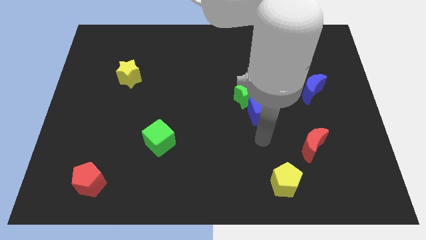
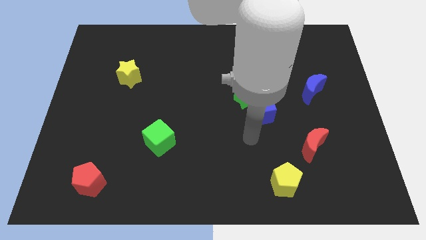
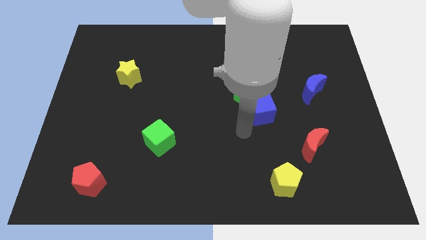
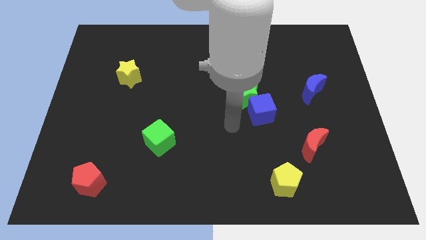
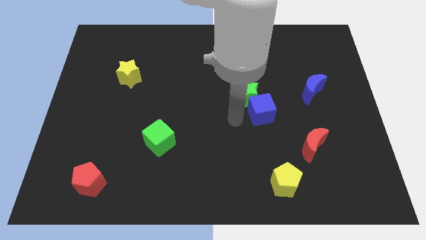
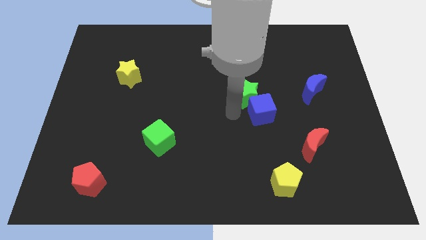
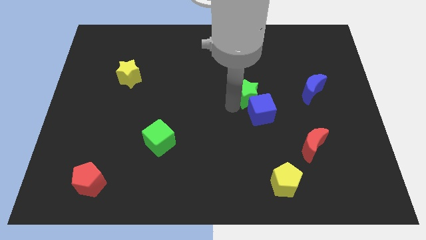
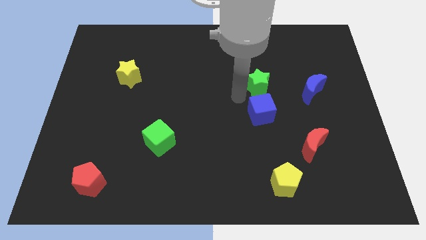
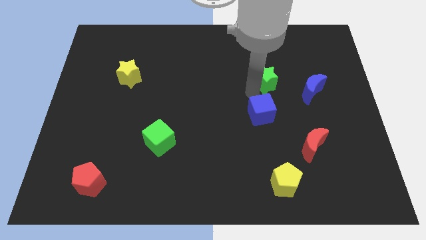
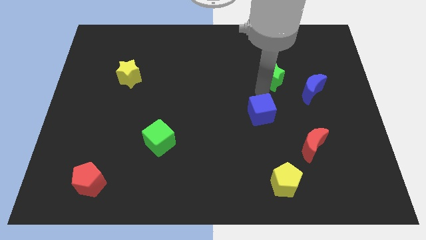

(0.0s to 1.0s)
separate the blue cube from the green star

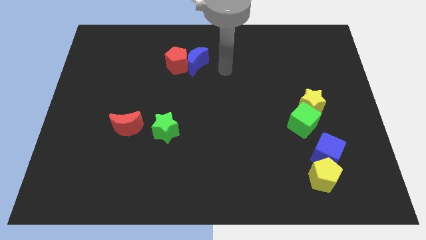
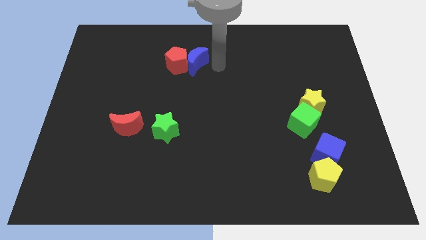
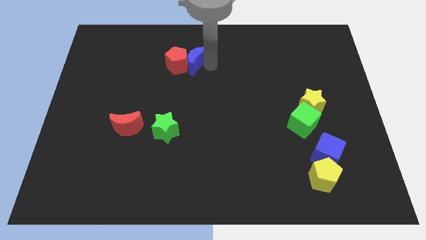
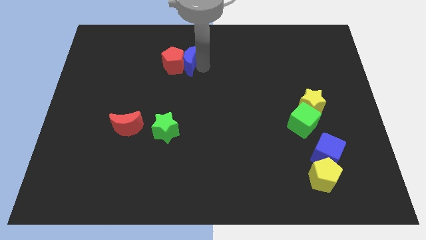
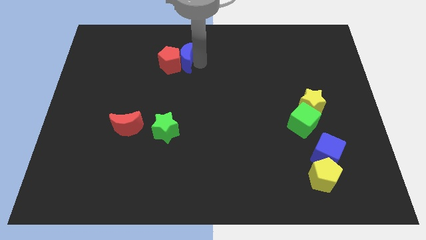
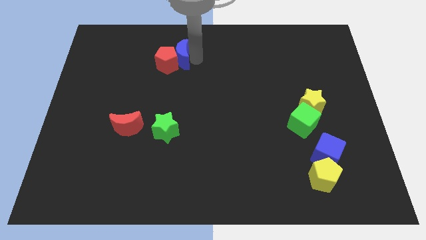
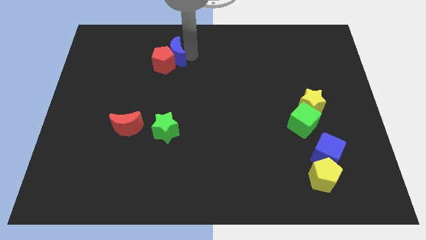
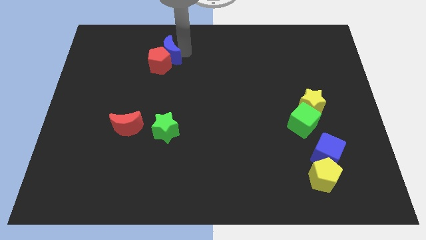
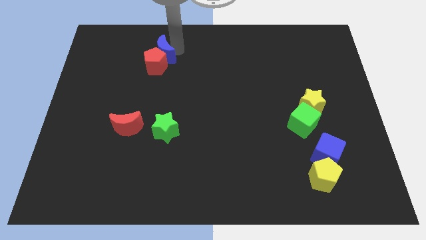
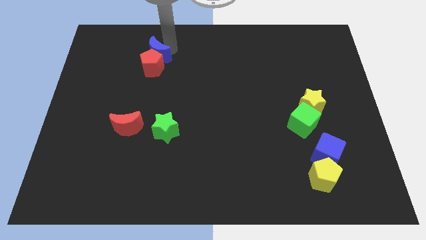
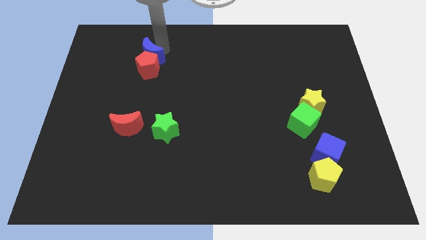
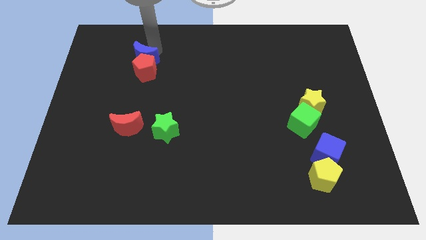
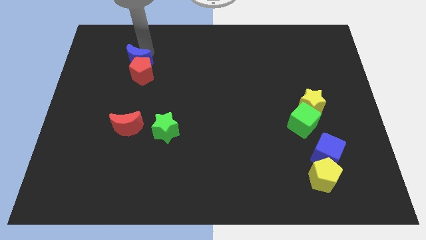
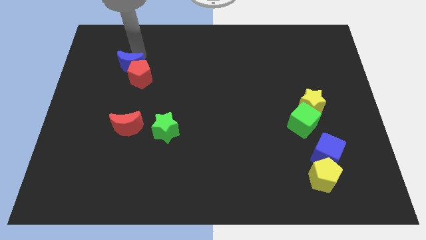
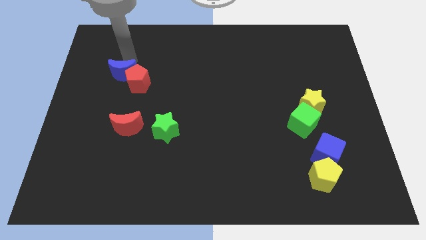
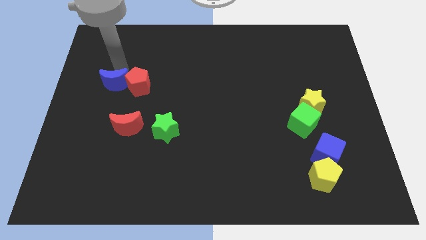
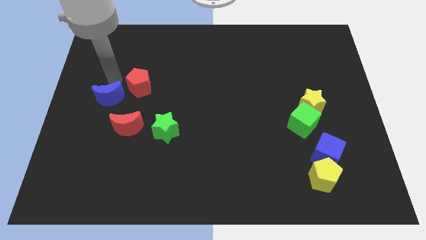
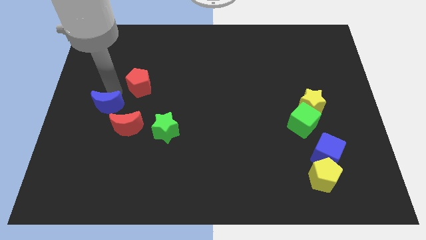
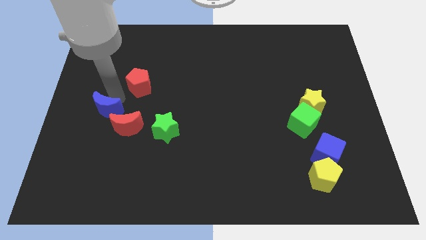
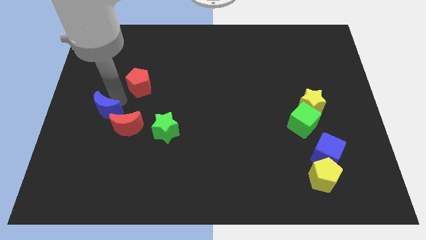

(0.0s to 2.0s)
move the red pentagon away from the blue moon

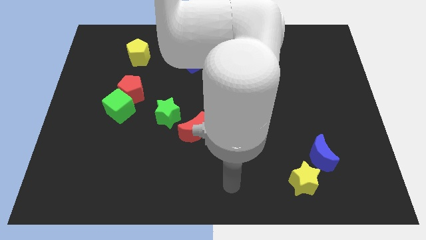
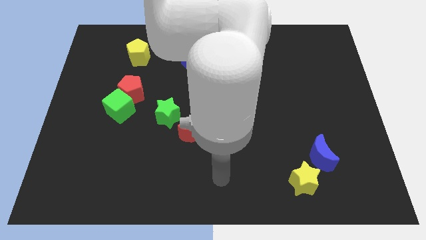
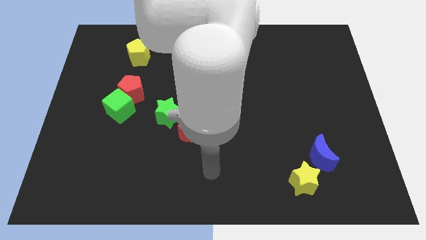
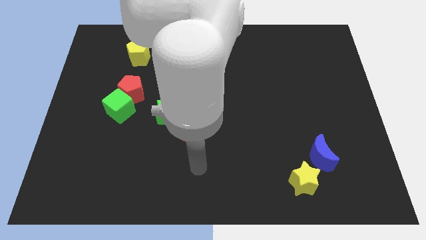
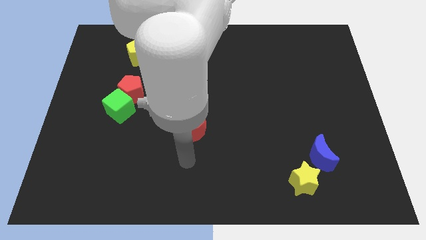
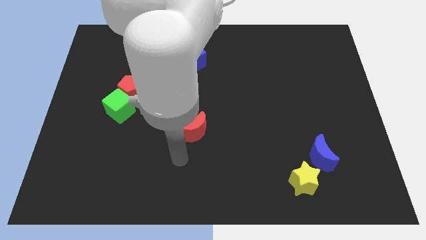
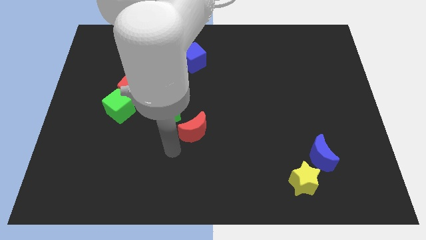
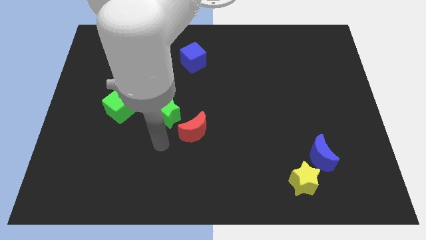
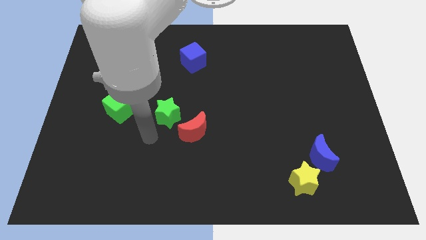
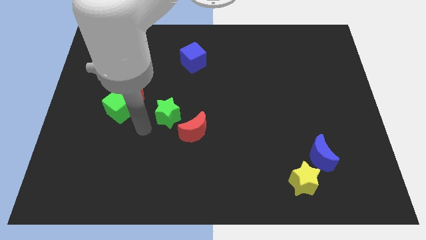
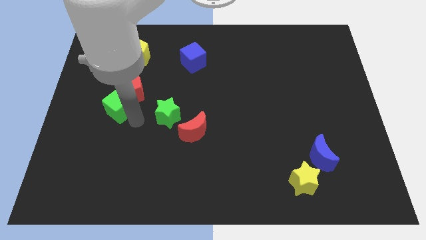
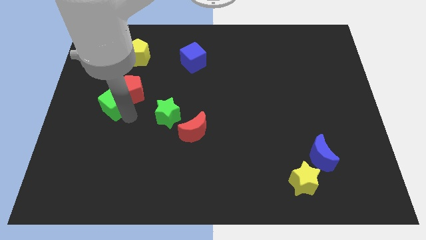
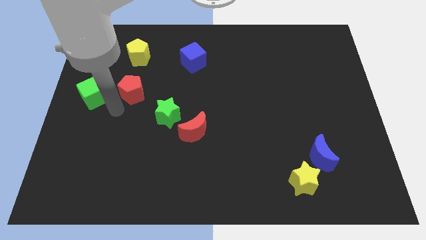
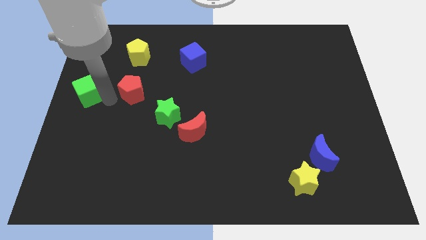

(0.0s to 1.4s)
pull the red pentagon apart from the green cube

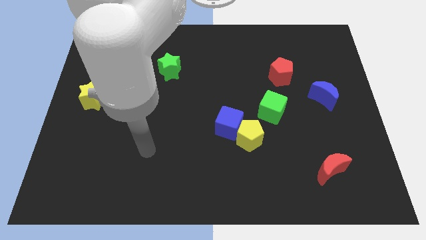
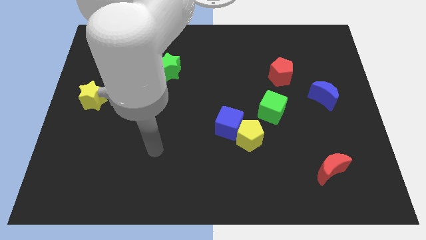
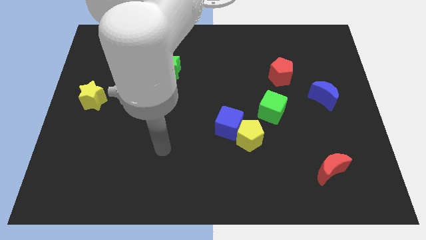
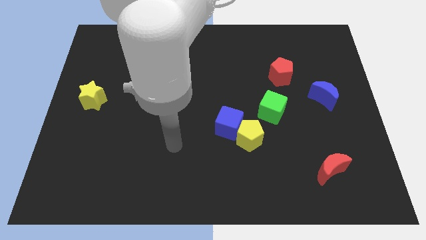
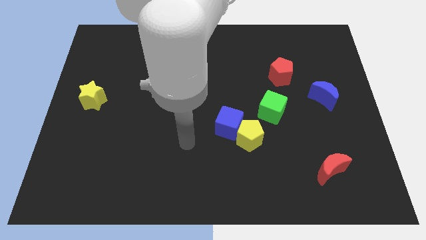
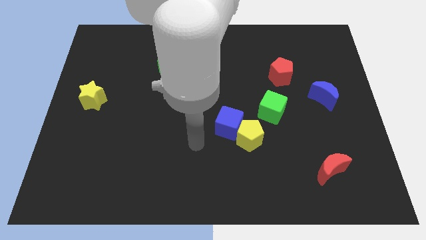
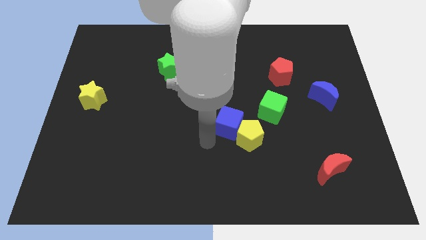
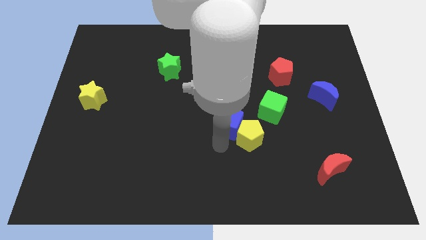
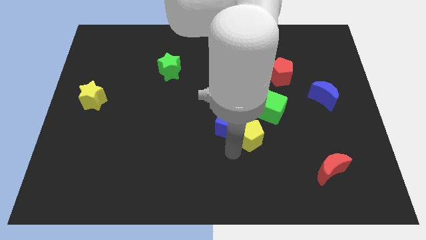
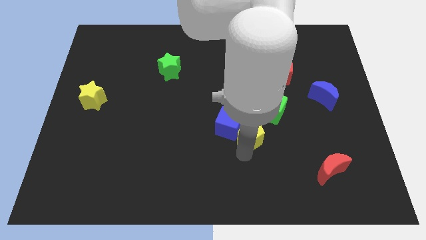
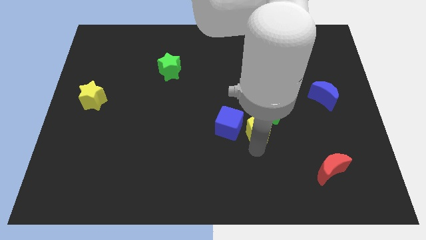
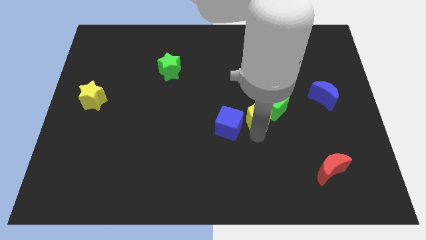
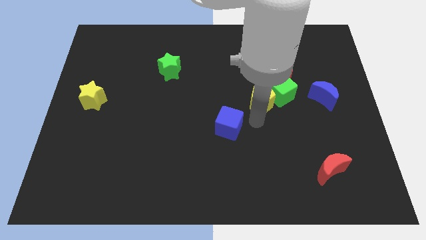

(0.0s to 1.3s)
separate the blue cube from the yellow pentagon

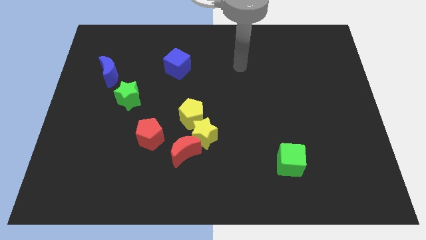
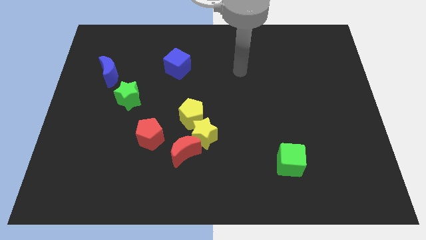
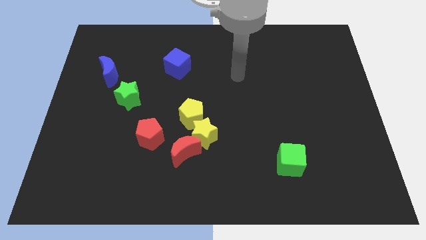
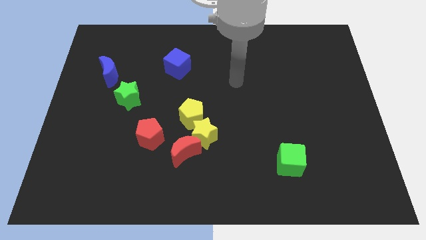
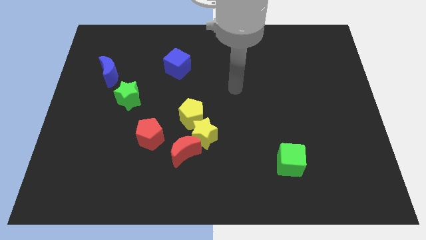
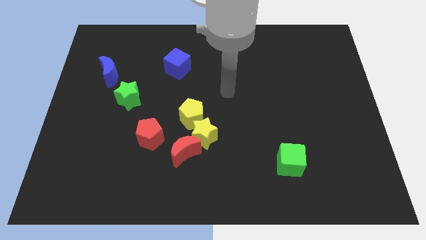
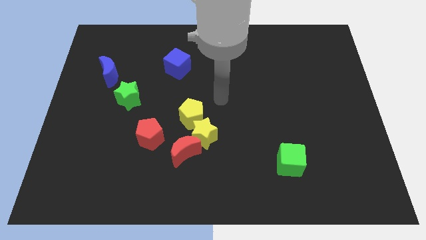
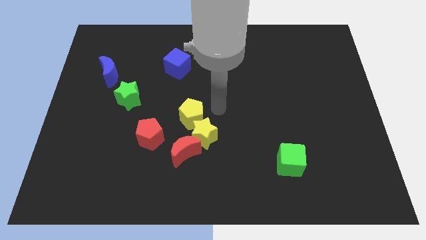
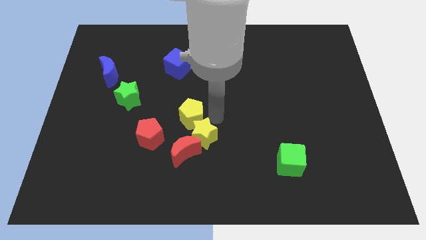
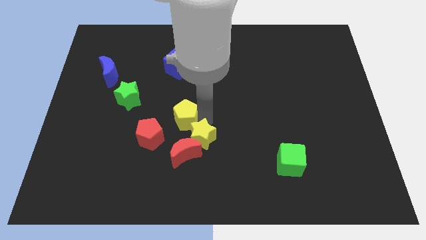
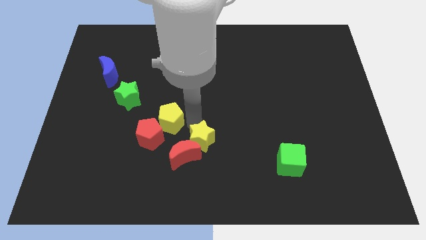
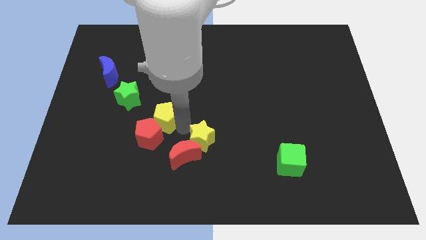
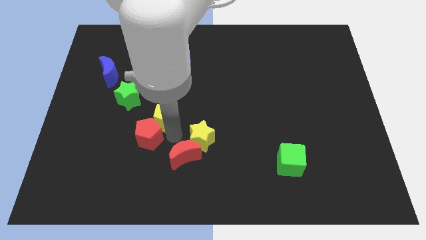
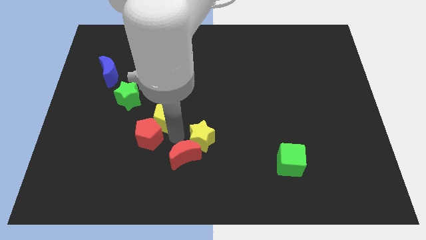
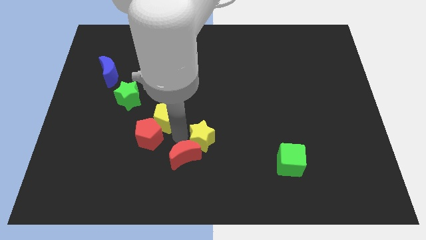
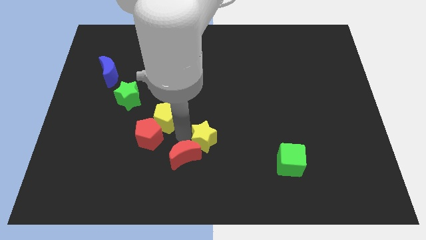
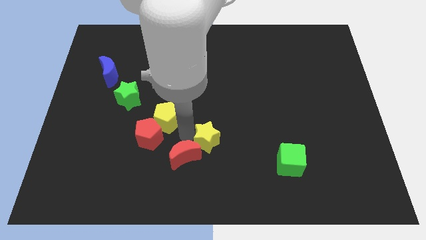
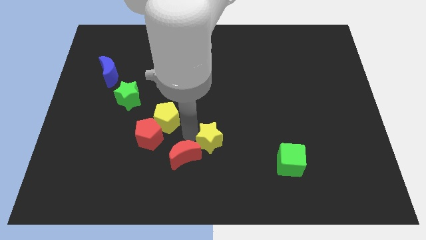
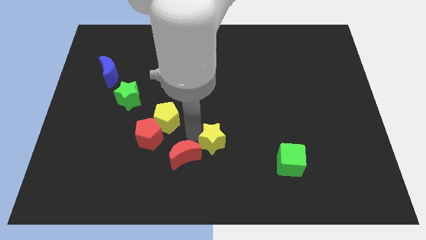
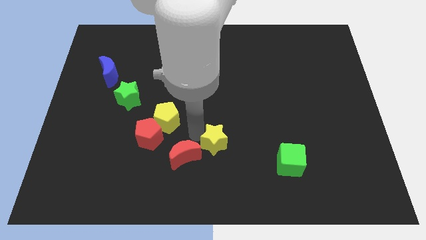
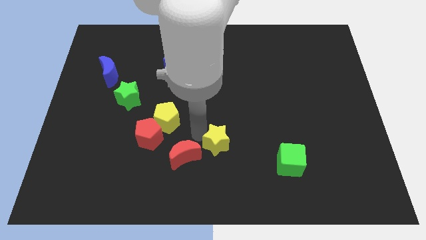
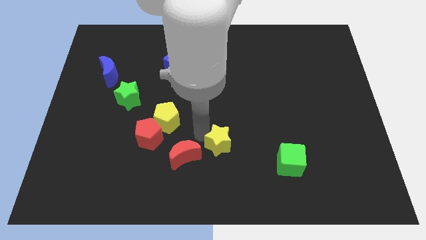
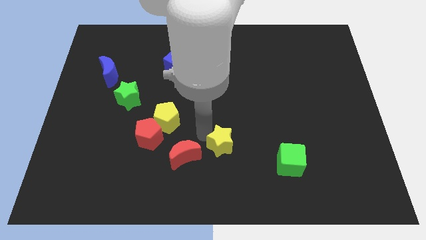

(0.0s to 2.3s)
separate the yellow star from the red moon and yellow pentagon

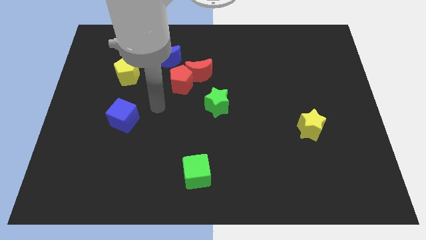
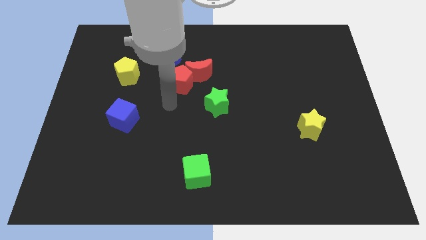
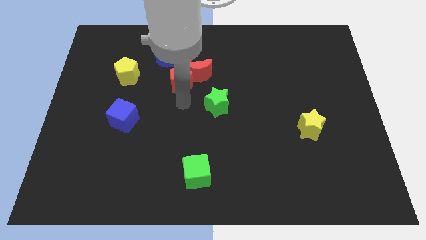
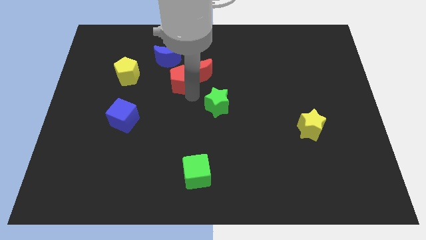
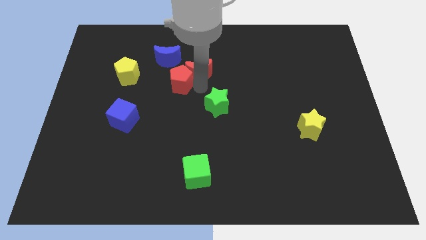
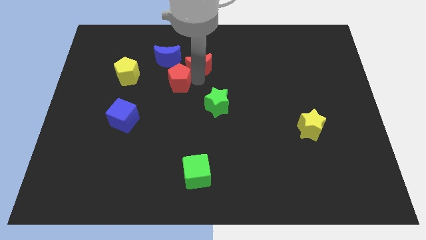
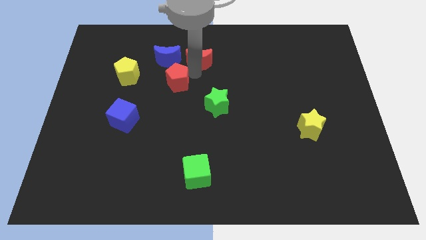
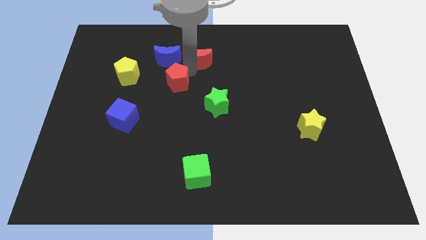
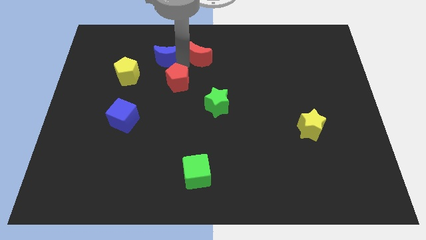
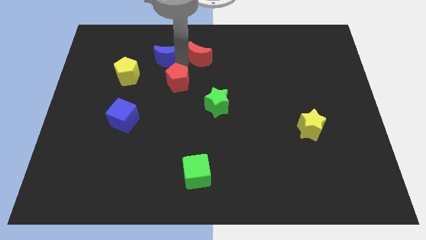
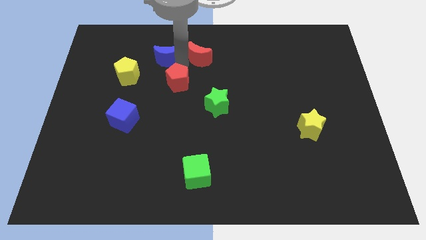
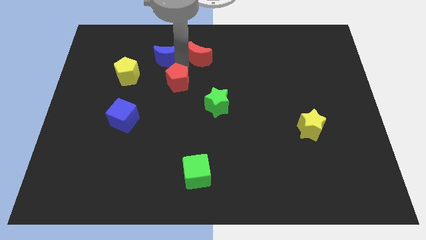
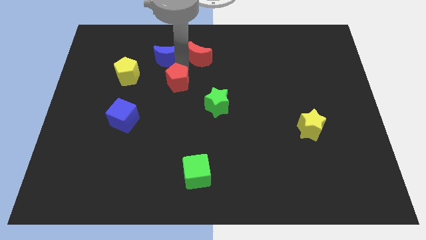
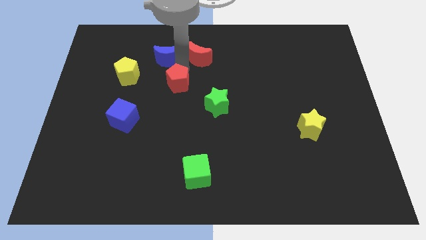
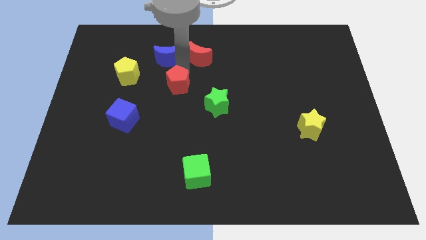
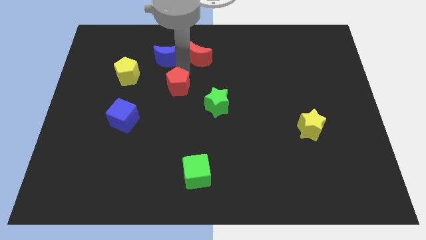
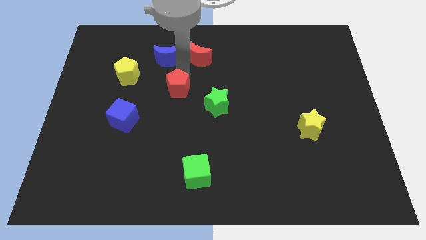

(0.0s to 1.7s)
move the red pentagon away from the red moon and blue moon
